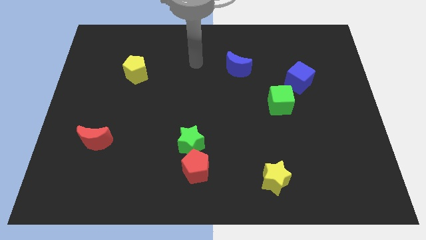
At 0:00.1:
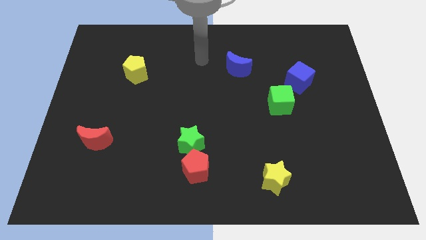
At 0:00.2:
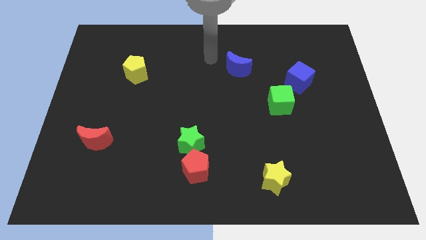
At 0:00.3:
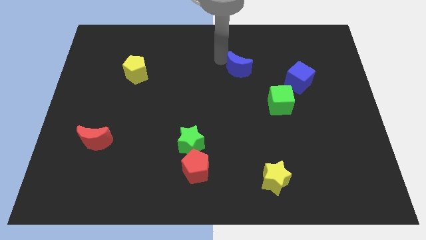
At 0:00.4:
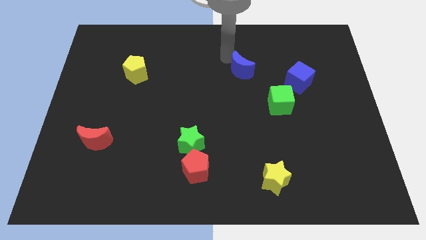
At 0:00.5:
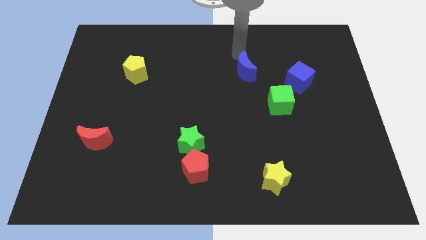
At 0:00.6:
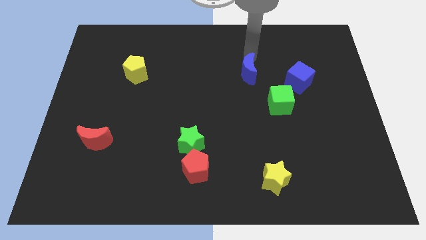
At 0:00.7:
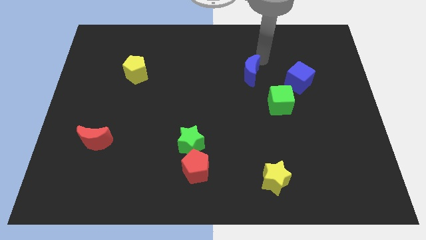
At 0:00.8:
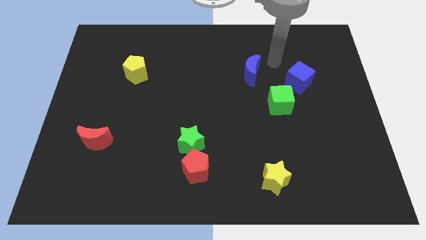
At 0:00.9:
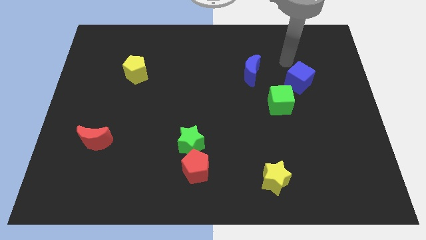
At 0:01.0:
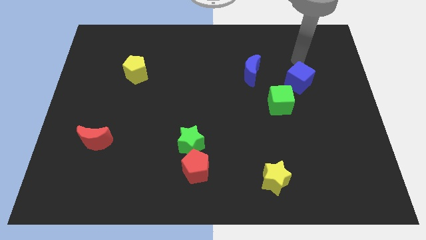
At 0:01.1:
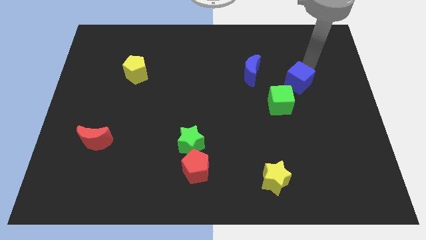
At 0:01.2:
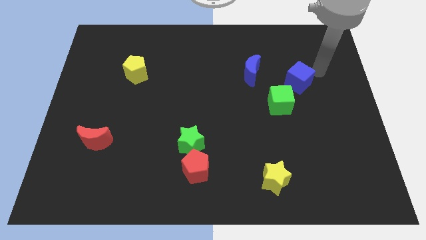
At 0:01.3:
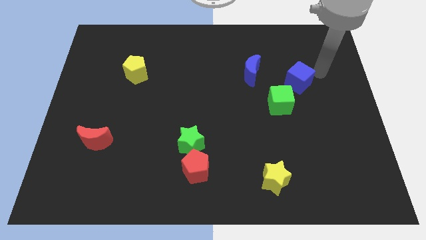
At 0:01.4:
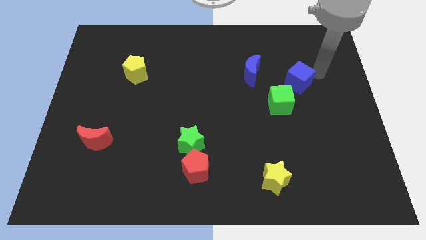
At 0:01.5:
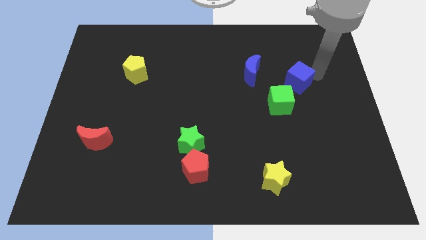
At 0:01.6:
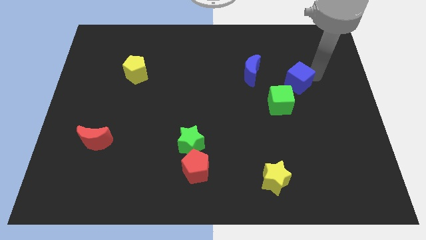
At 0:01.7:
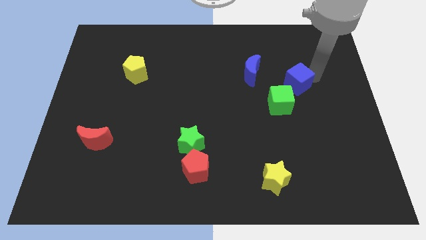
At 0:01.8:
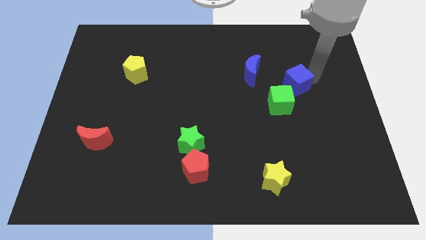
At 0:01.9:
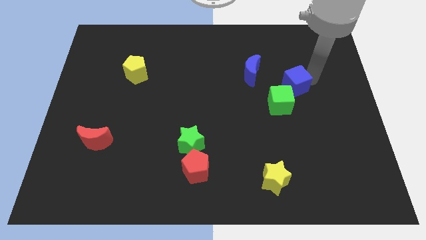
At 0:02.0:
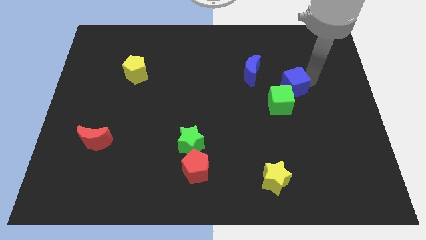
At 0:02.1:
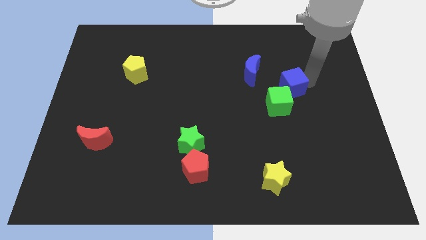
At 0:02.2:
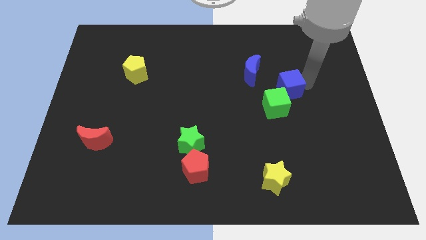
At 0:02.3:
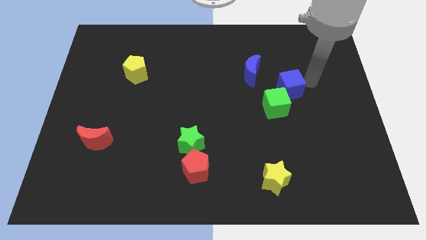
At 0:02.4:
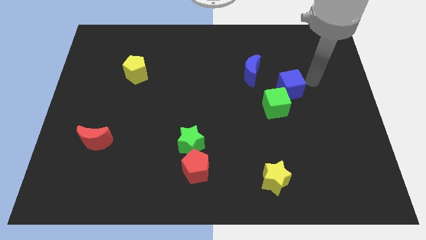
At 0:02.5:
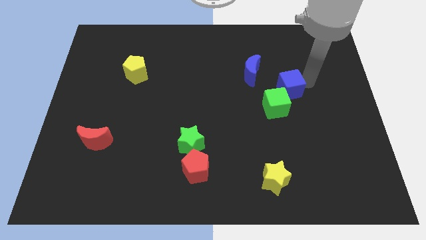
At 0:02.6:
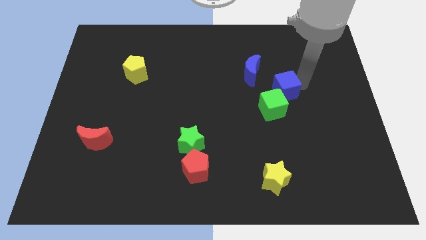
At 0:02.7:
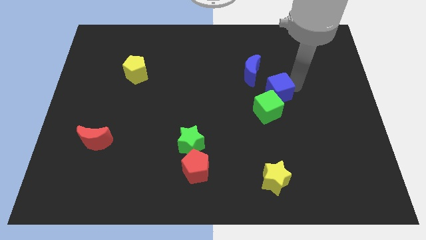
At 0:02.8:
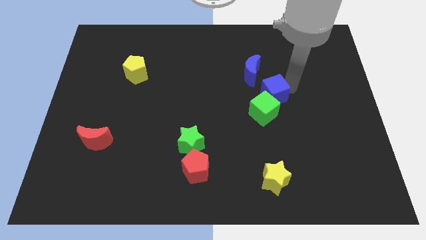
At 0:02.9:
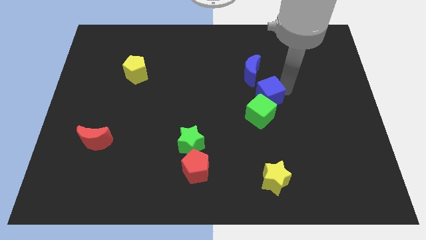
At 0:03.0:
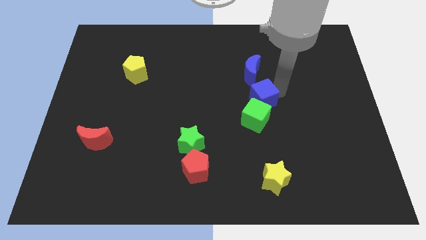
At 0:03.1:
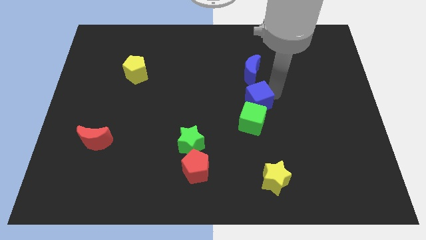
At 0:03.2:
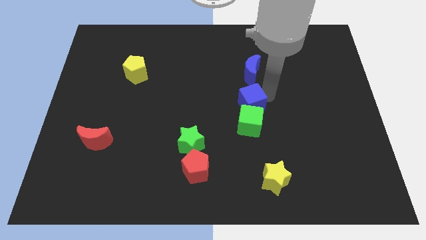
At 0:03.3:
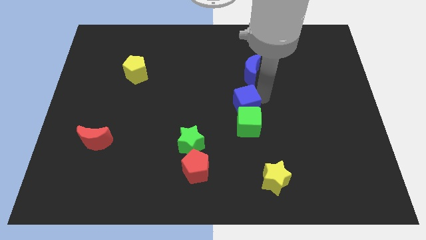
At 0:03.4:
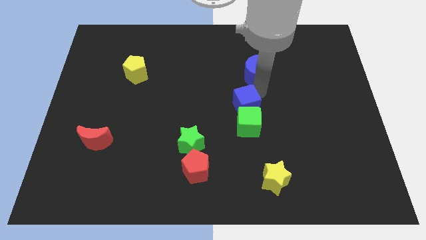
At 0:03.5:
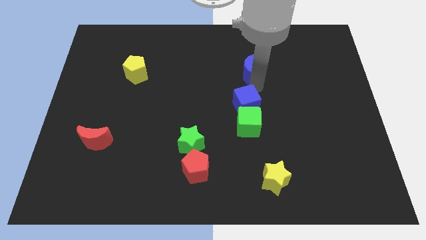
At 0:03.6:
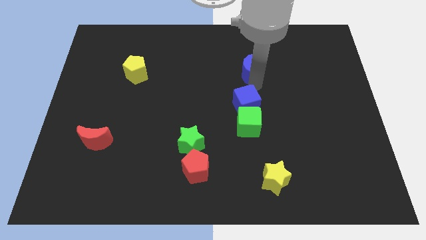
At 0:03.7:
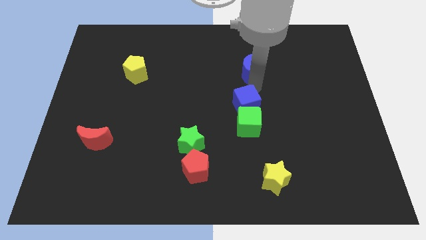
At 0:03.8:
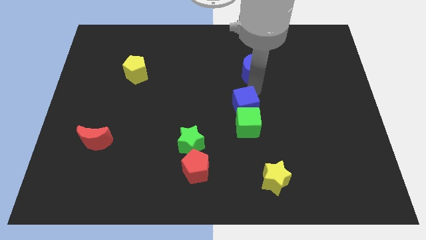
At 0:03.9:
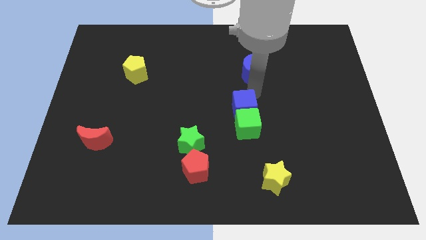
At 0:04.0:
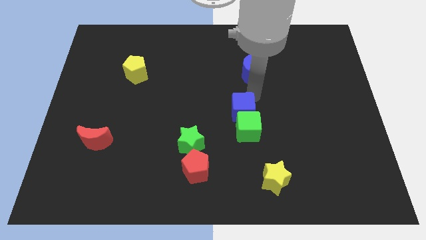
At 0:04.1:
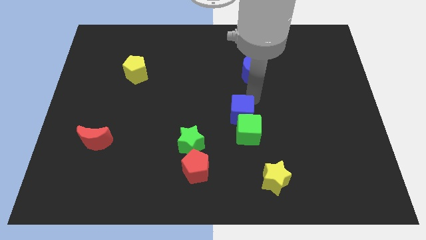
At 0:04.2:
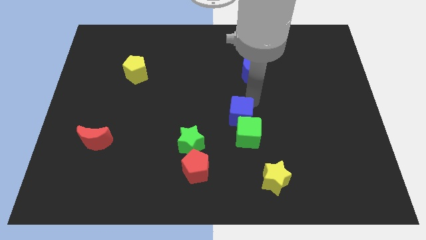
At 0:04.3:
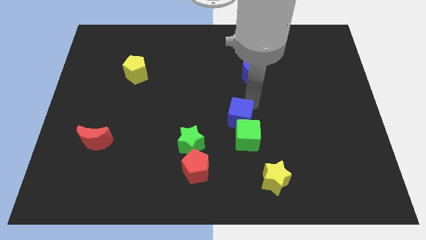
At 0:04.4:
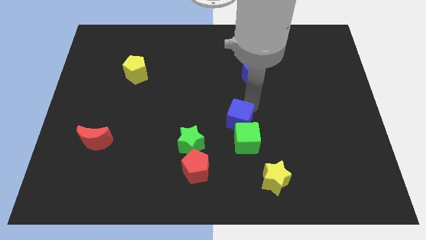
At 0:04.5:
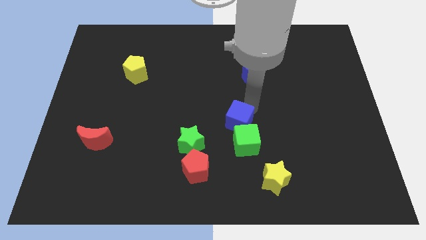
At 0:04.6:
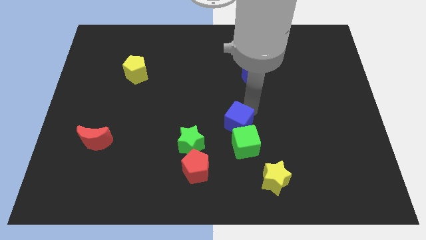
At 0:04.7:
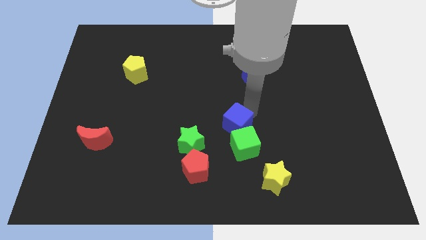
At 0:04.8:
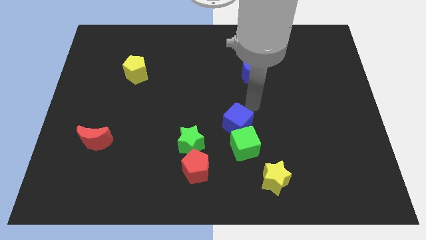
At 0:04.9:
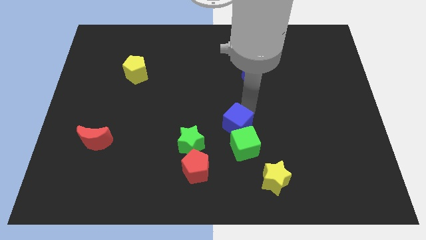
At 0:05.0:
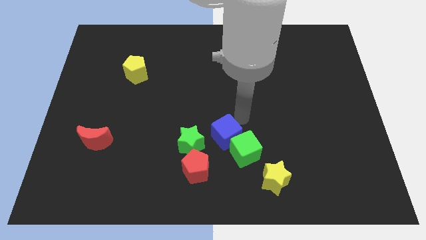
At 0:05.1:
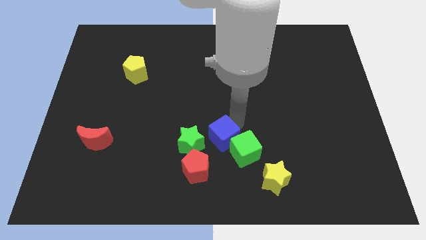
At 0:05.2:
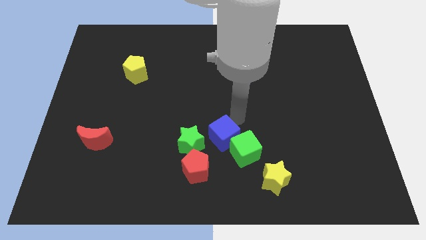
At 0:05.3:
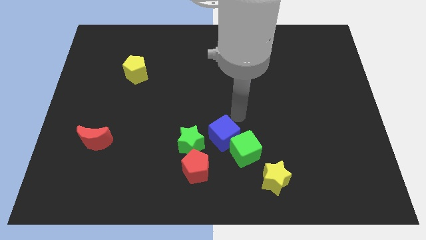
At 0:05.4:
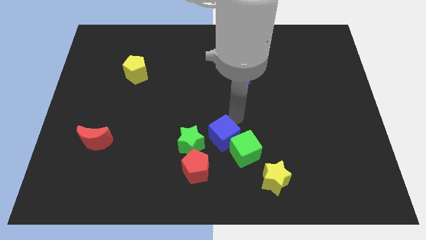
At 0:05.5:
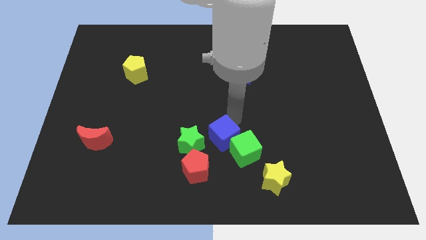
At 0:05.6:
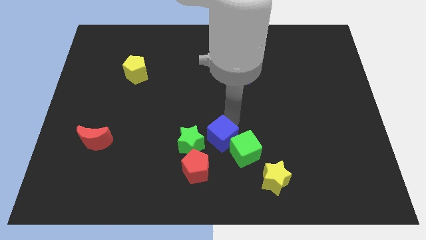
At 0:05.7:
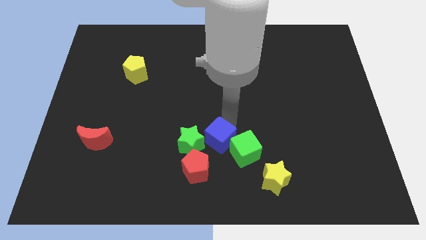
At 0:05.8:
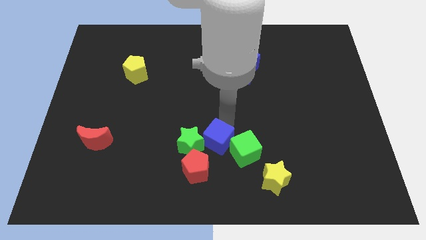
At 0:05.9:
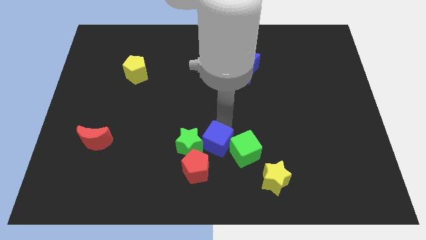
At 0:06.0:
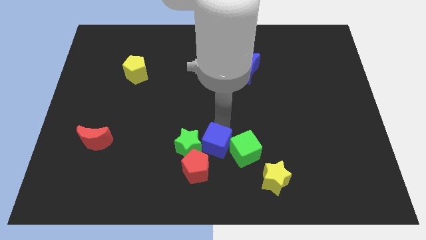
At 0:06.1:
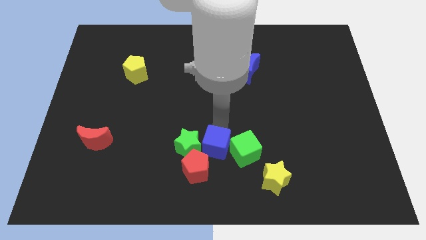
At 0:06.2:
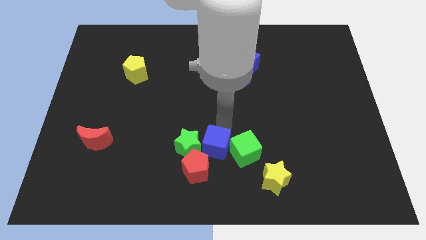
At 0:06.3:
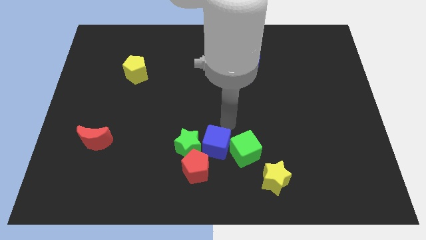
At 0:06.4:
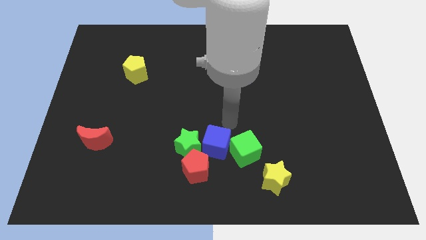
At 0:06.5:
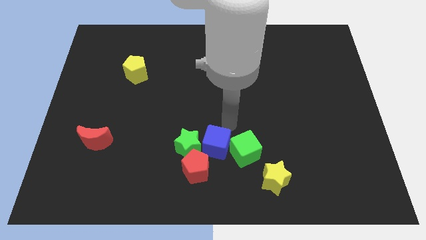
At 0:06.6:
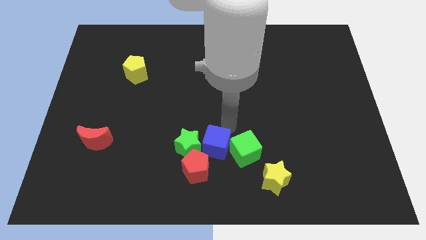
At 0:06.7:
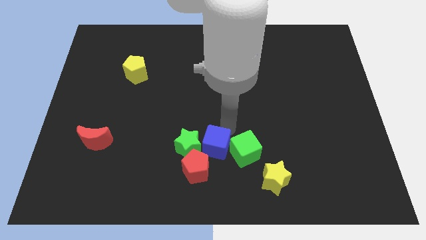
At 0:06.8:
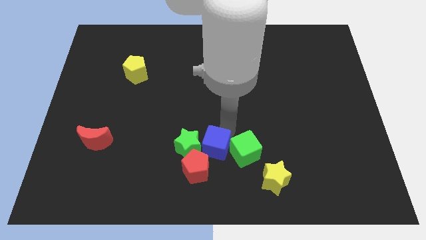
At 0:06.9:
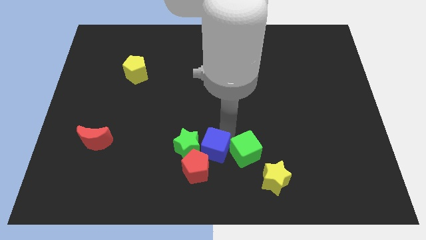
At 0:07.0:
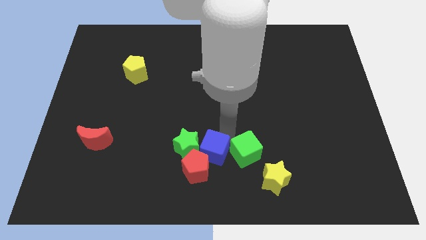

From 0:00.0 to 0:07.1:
slide the blue cube close to the red pentagon
